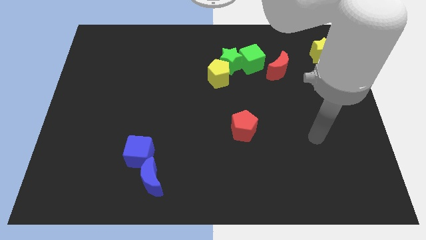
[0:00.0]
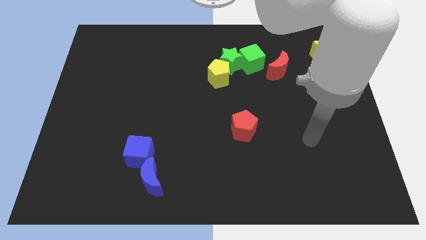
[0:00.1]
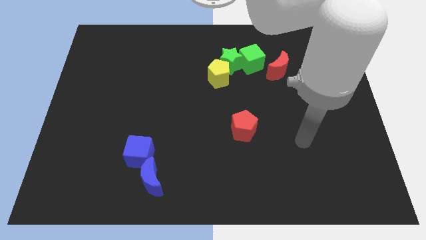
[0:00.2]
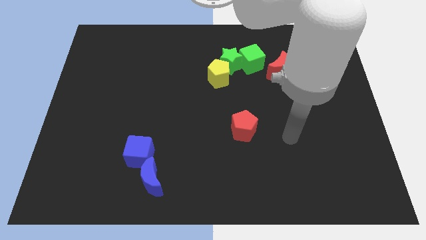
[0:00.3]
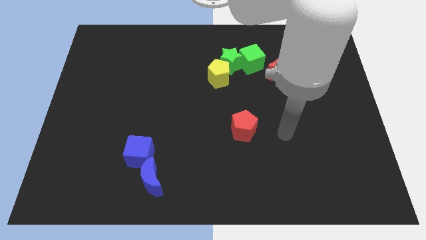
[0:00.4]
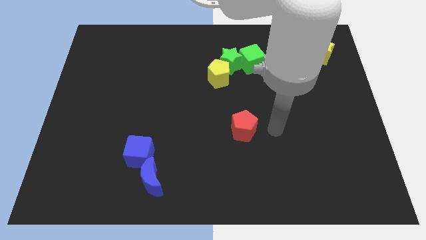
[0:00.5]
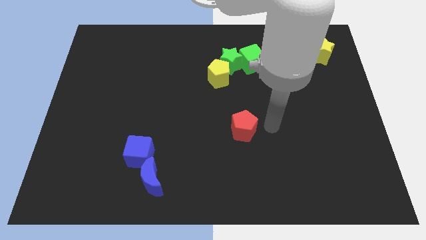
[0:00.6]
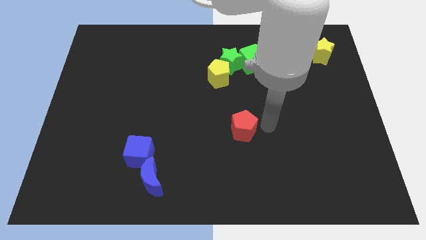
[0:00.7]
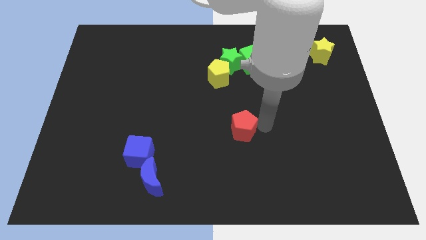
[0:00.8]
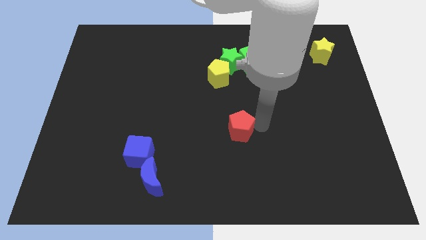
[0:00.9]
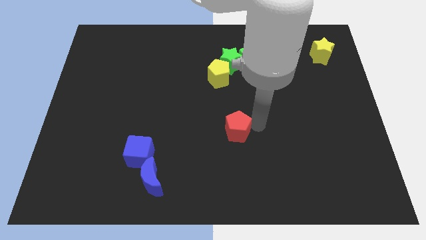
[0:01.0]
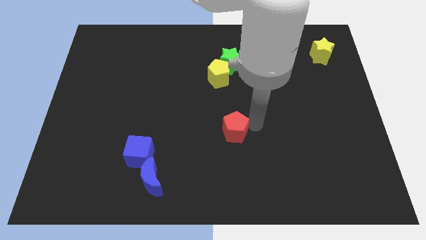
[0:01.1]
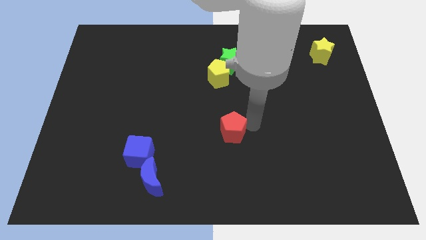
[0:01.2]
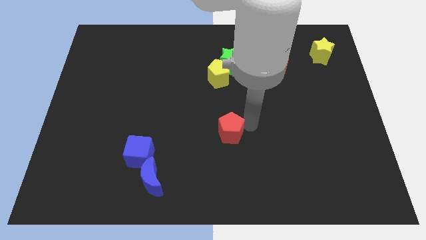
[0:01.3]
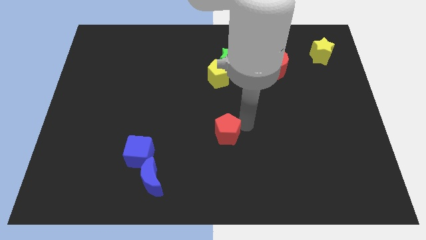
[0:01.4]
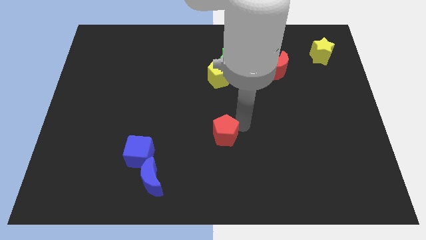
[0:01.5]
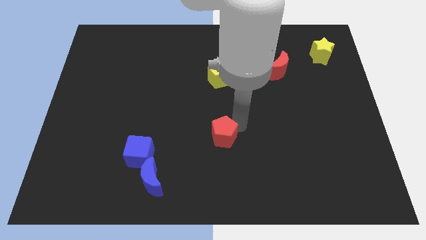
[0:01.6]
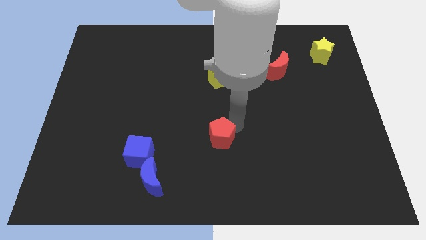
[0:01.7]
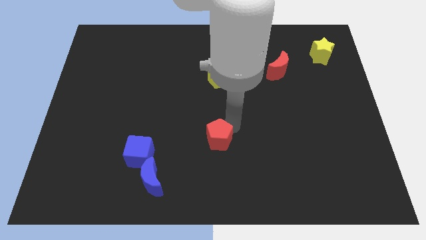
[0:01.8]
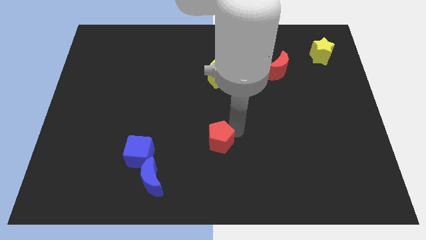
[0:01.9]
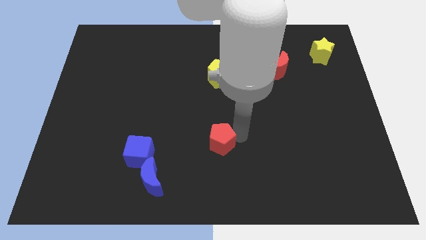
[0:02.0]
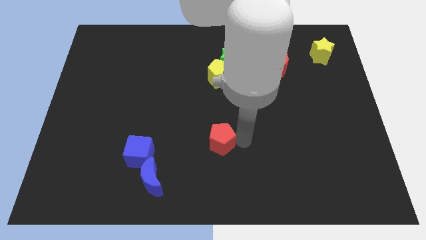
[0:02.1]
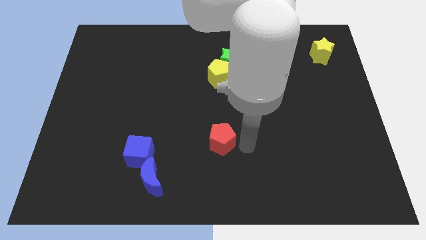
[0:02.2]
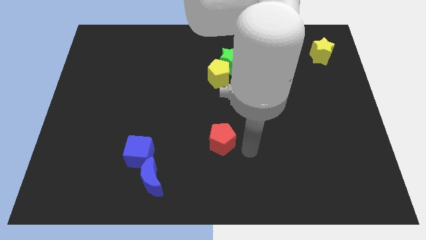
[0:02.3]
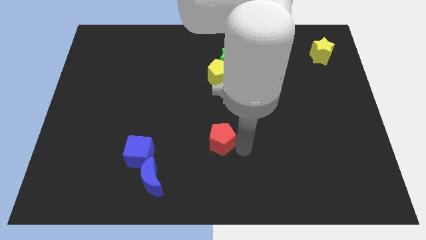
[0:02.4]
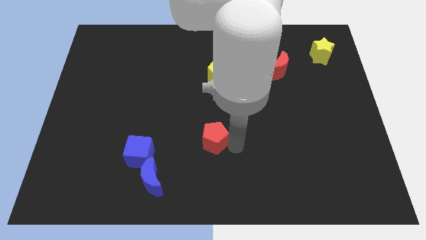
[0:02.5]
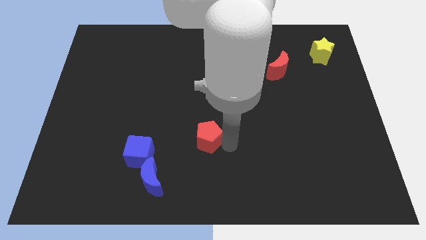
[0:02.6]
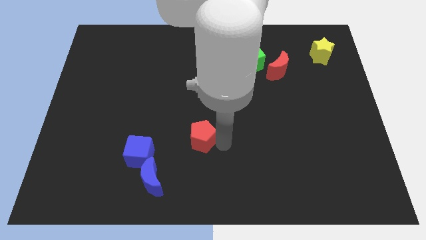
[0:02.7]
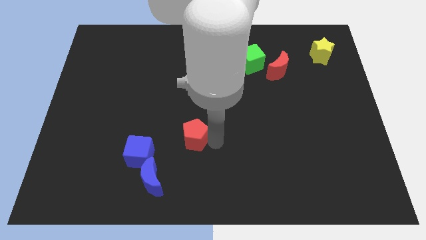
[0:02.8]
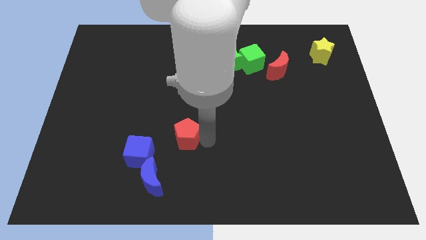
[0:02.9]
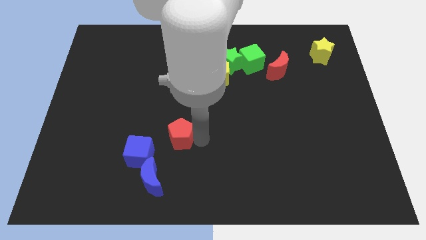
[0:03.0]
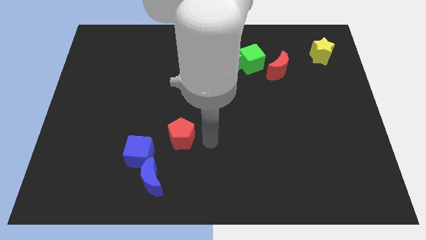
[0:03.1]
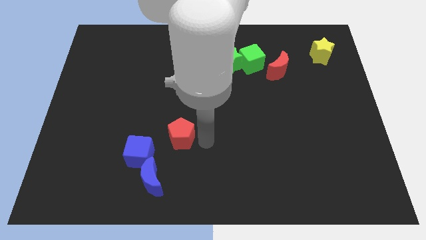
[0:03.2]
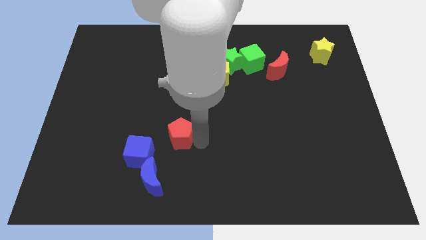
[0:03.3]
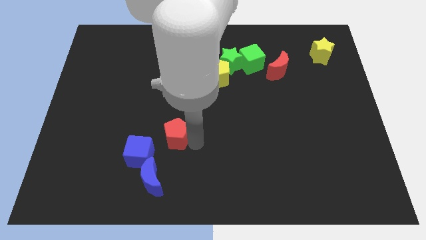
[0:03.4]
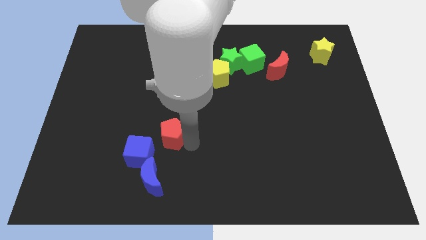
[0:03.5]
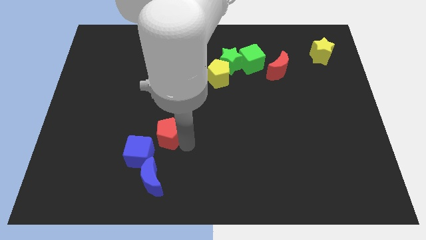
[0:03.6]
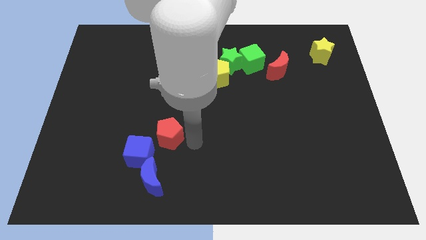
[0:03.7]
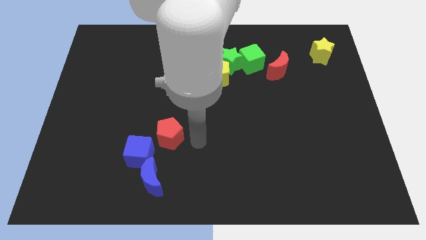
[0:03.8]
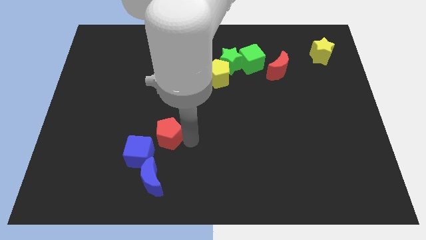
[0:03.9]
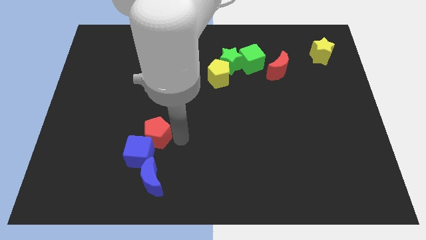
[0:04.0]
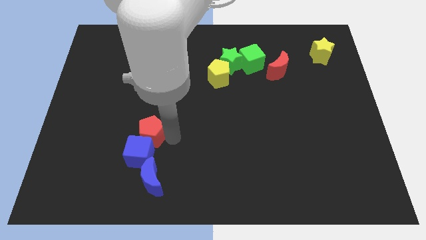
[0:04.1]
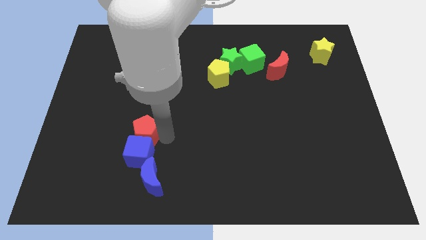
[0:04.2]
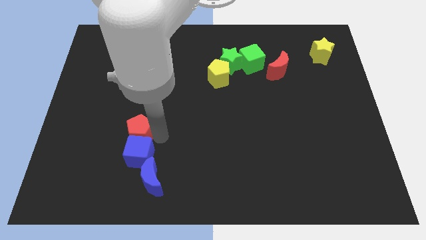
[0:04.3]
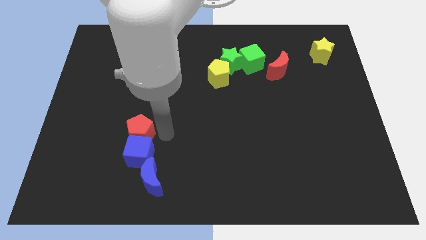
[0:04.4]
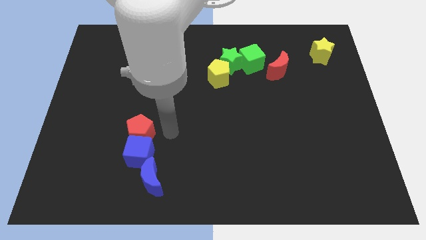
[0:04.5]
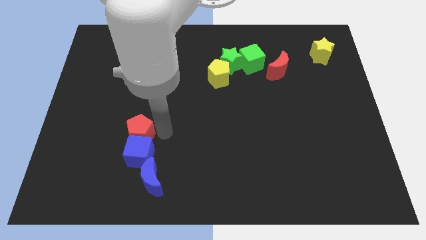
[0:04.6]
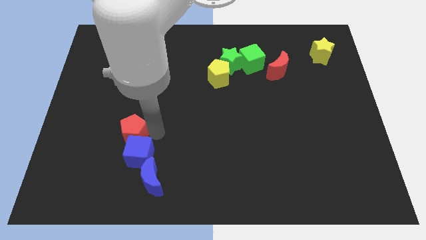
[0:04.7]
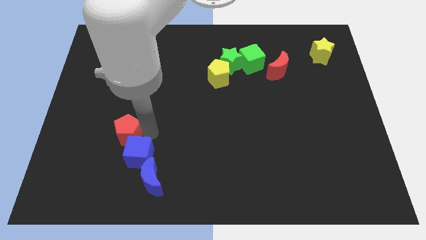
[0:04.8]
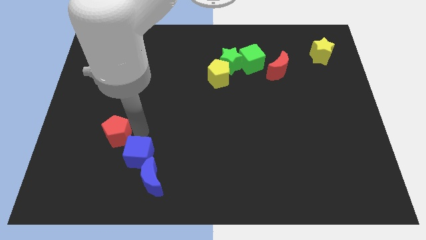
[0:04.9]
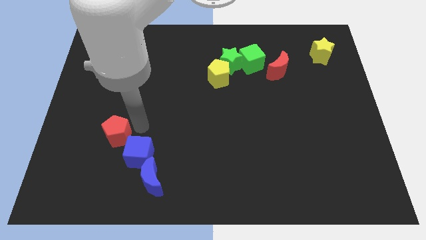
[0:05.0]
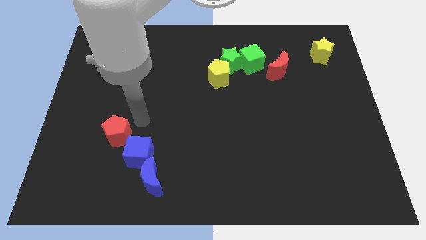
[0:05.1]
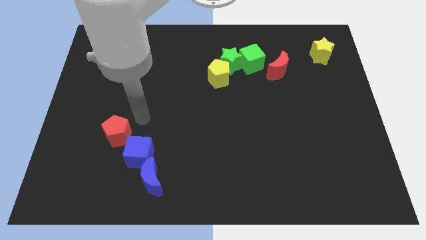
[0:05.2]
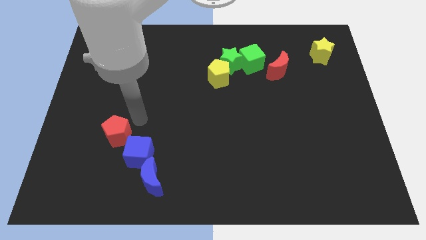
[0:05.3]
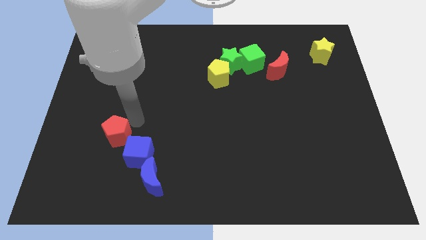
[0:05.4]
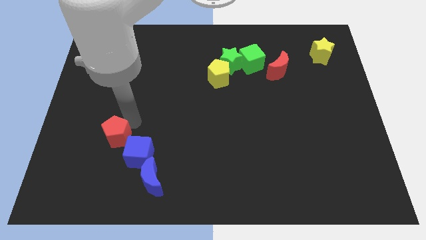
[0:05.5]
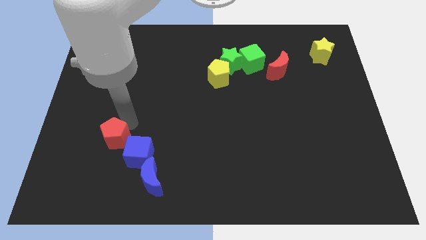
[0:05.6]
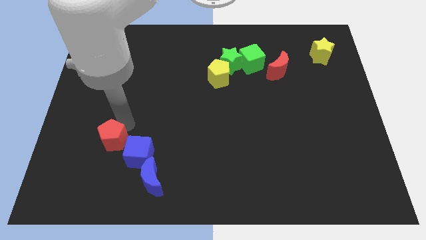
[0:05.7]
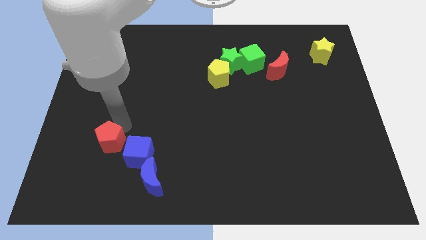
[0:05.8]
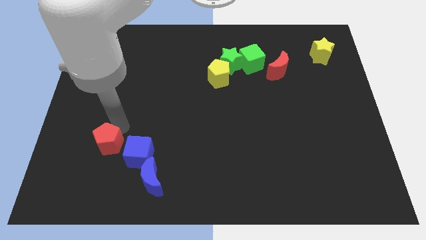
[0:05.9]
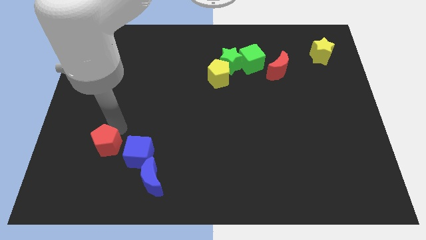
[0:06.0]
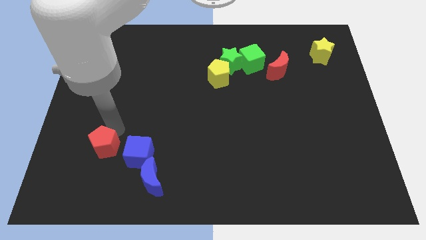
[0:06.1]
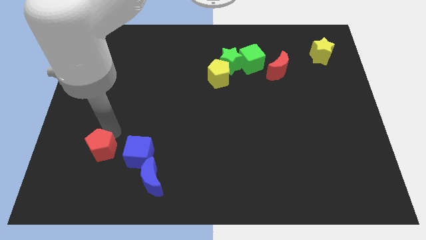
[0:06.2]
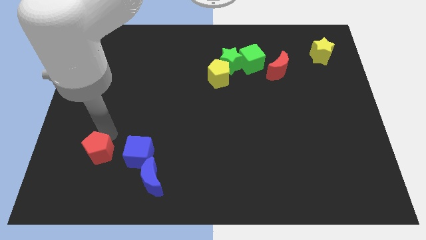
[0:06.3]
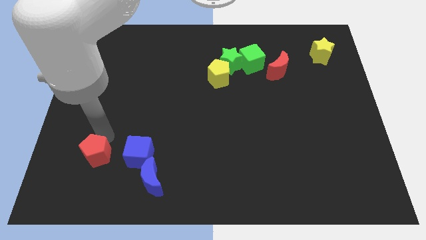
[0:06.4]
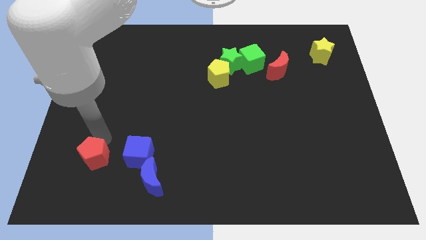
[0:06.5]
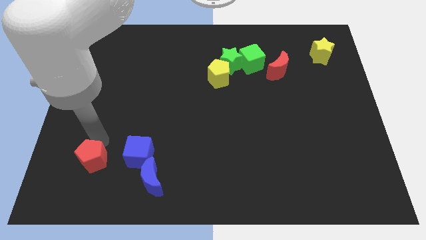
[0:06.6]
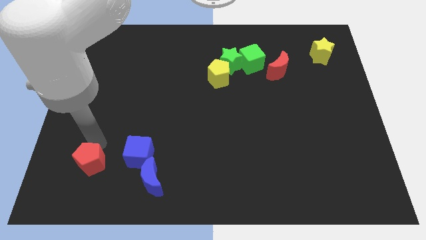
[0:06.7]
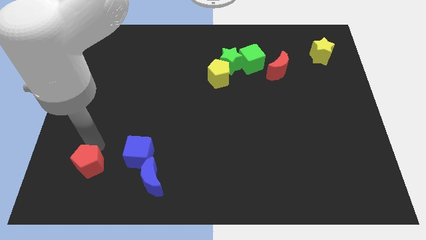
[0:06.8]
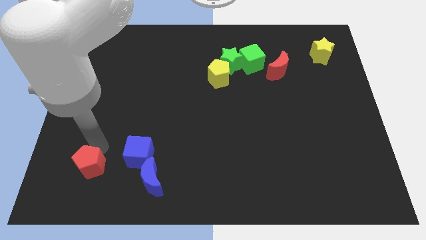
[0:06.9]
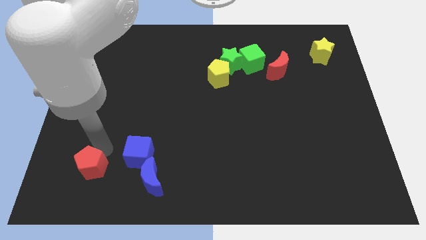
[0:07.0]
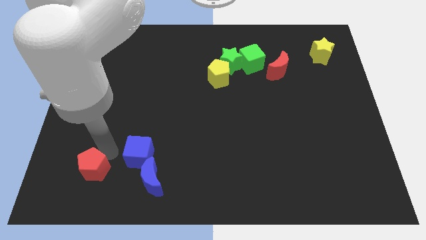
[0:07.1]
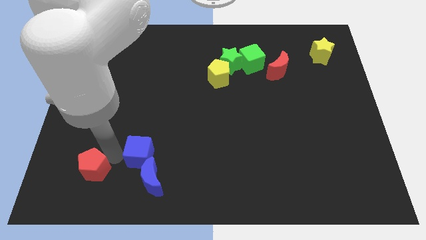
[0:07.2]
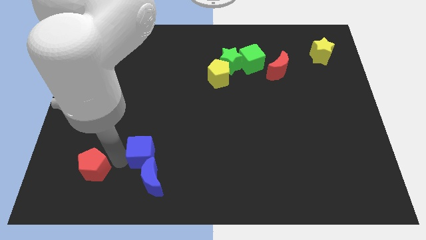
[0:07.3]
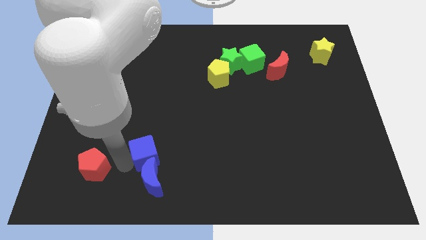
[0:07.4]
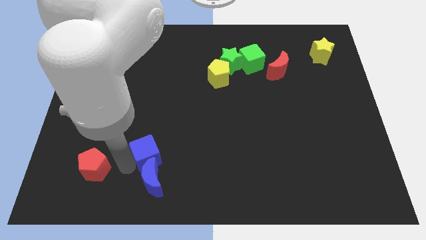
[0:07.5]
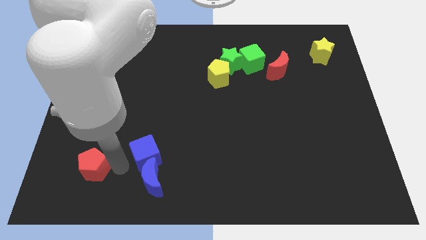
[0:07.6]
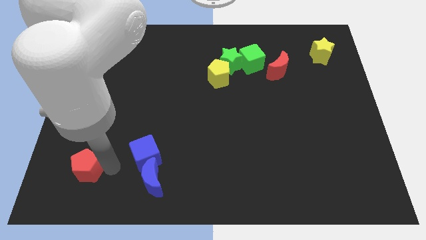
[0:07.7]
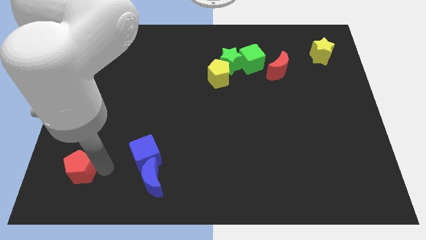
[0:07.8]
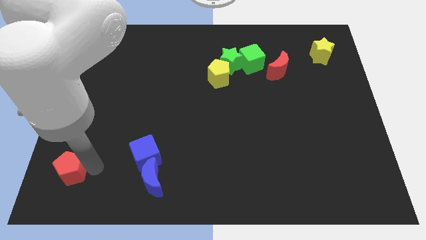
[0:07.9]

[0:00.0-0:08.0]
slide the red pentagon to the bottom left of the board
